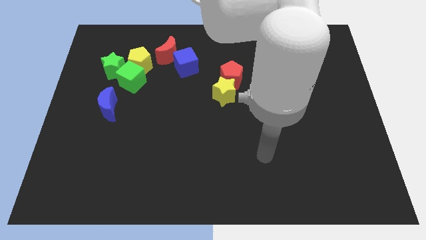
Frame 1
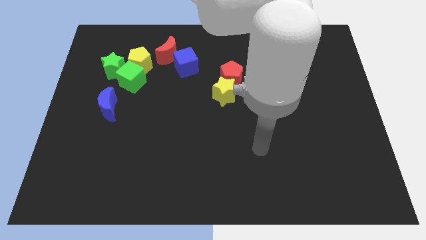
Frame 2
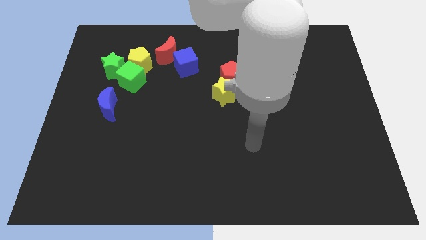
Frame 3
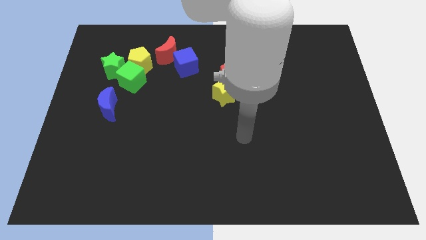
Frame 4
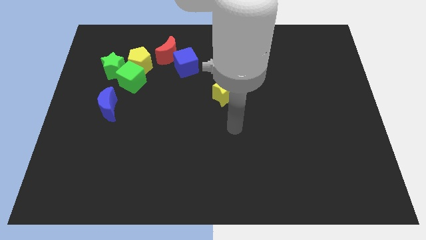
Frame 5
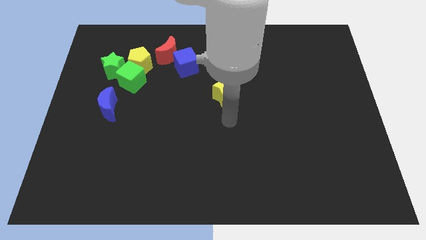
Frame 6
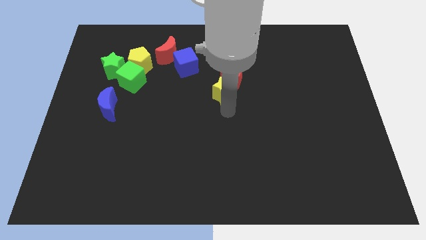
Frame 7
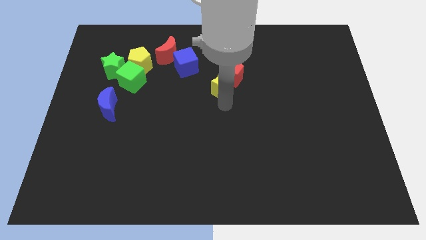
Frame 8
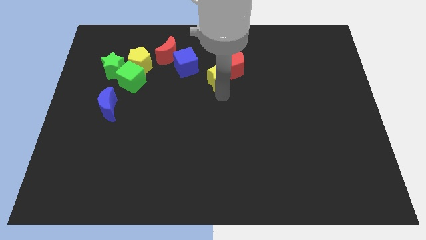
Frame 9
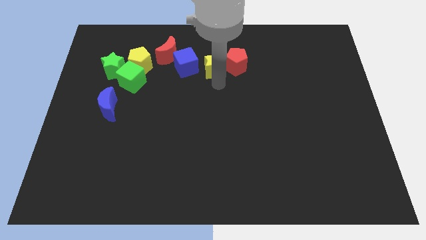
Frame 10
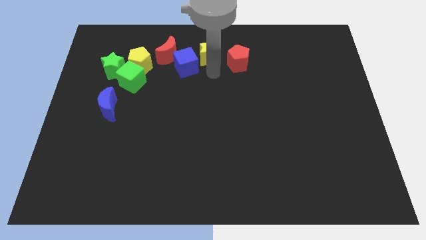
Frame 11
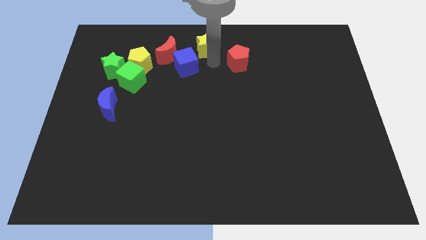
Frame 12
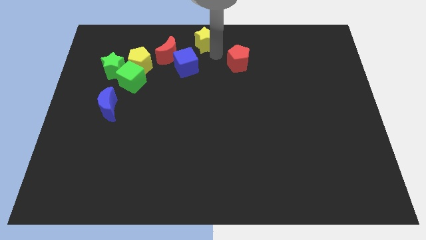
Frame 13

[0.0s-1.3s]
move the red pentagon away from the yellow star

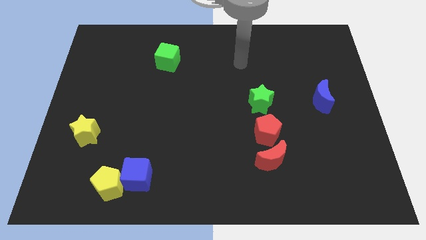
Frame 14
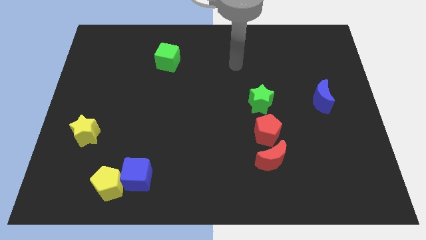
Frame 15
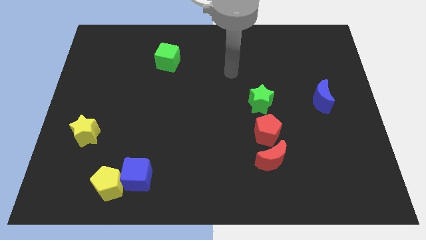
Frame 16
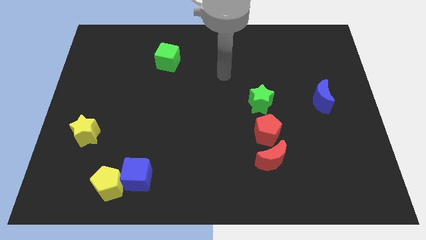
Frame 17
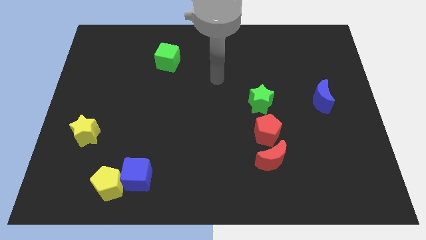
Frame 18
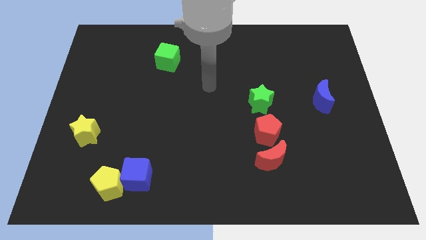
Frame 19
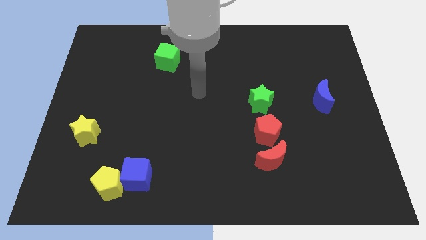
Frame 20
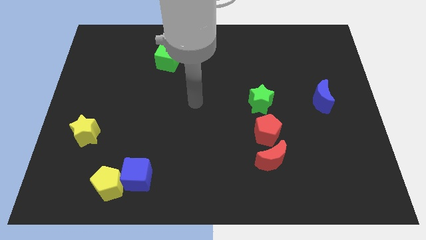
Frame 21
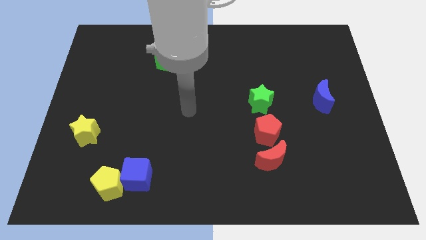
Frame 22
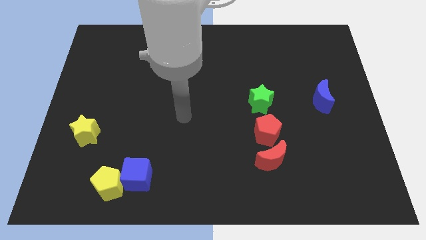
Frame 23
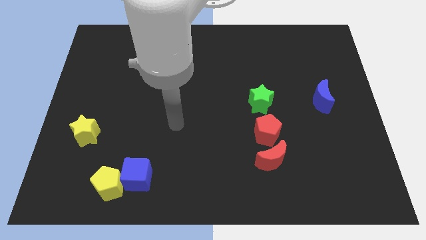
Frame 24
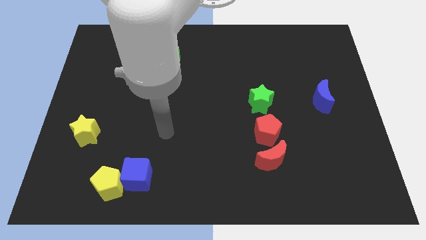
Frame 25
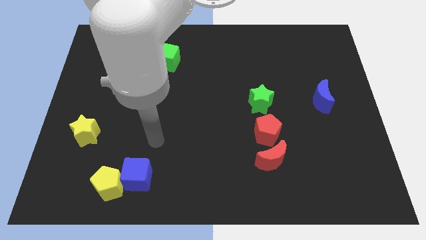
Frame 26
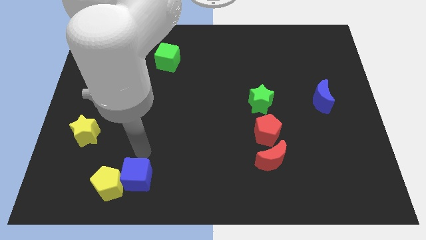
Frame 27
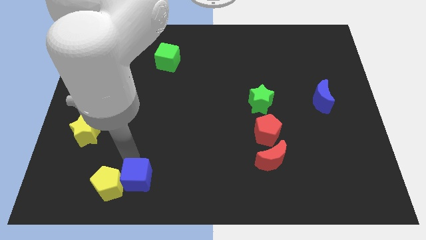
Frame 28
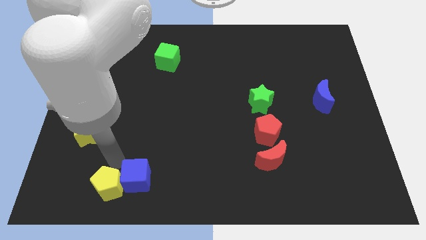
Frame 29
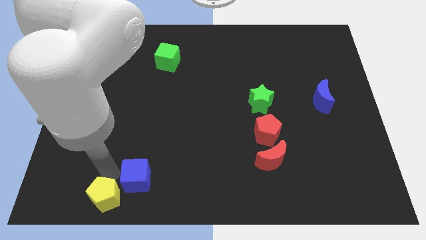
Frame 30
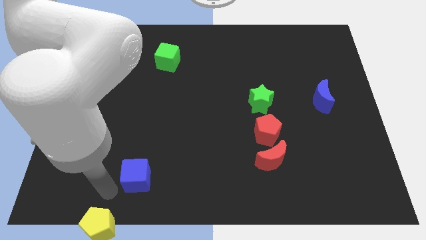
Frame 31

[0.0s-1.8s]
move the blue cube away from the yellow pentagon

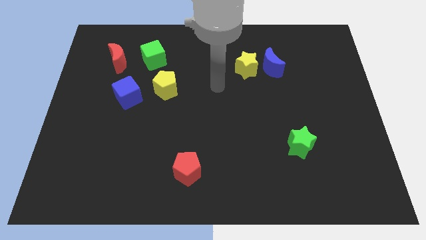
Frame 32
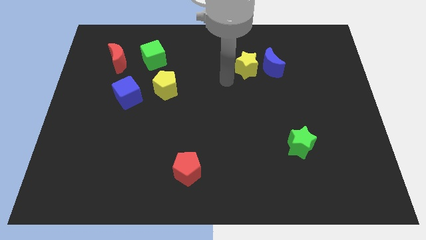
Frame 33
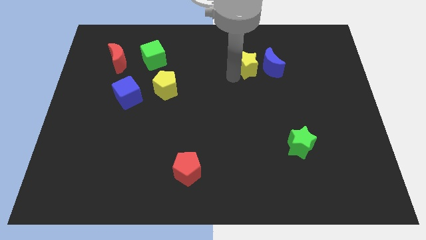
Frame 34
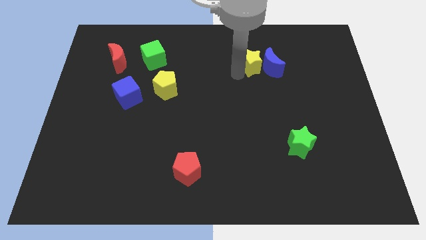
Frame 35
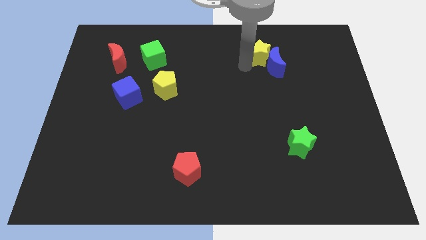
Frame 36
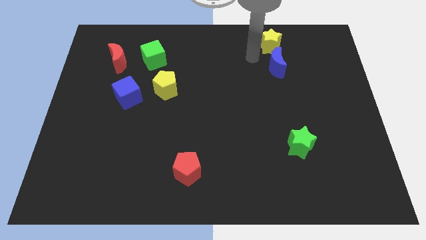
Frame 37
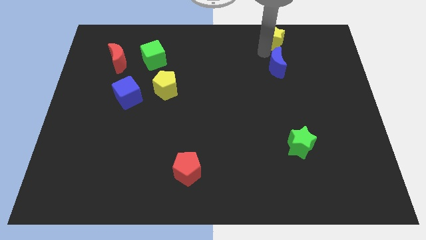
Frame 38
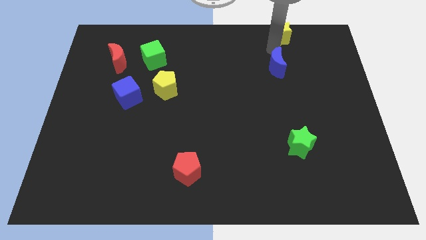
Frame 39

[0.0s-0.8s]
separate the blue moon from the yellow star

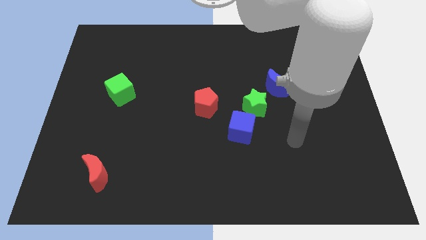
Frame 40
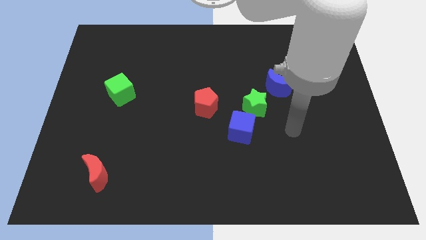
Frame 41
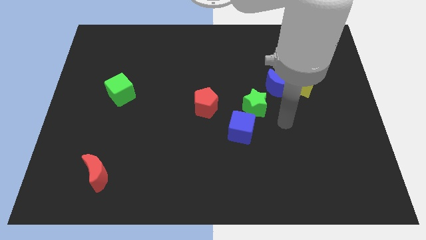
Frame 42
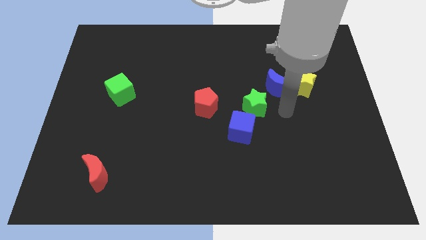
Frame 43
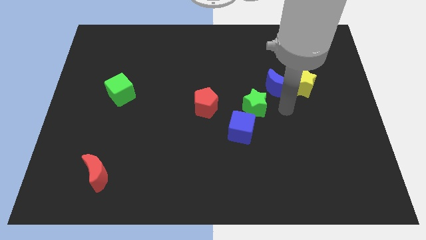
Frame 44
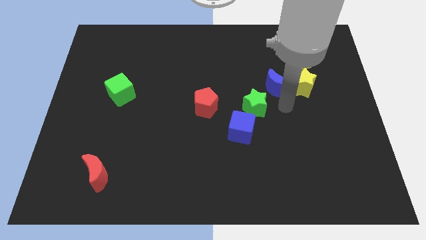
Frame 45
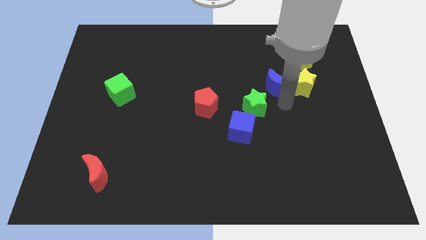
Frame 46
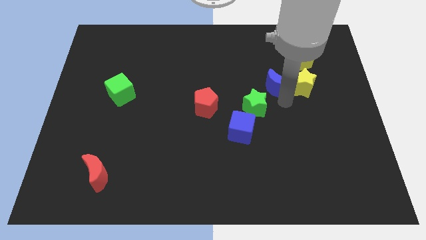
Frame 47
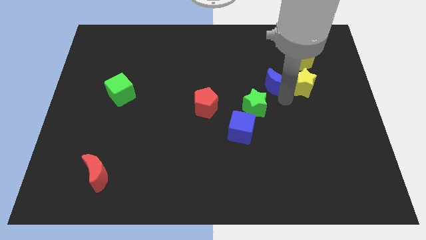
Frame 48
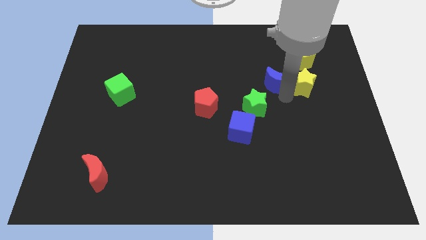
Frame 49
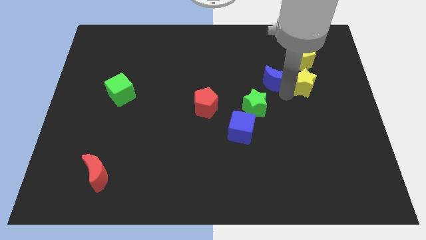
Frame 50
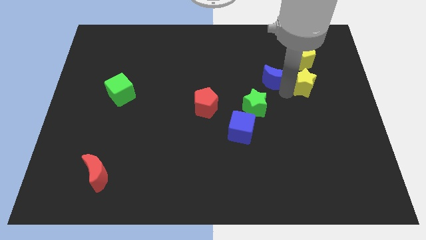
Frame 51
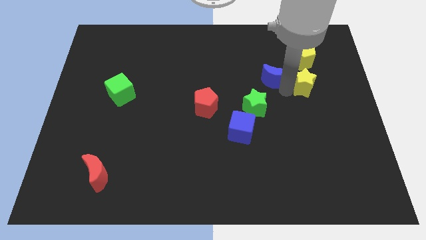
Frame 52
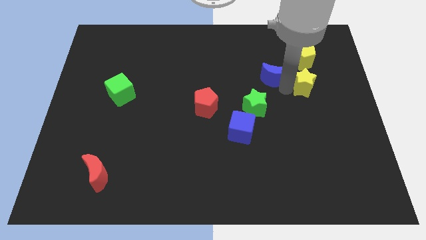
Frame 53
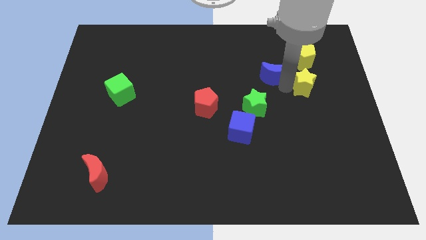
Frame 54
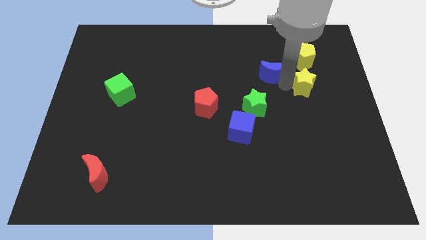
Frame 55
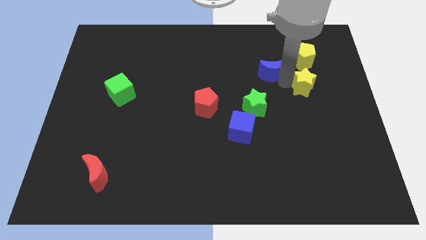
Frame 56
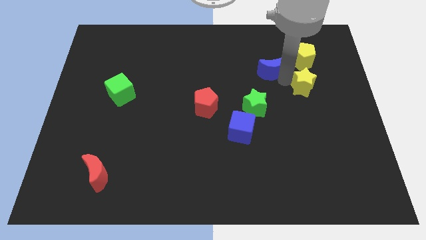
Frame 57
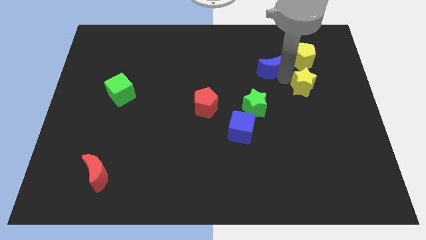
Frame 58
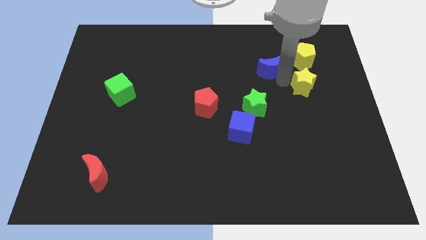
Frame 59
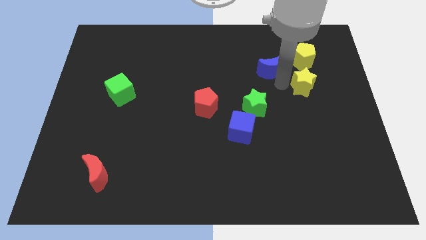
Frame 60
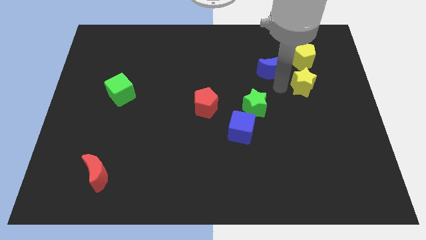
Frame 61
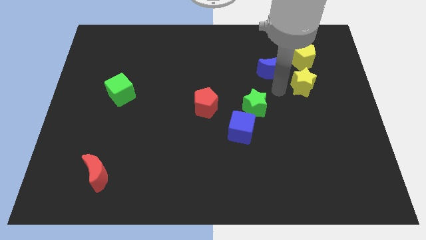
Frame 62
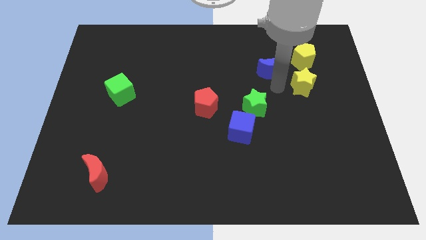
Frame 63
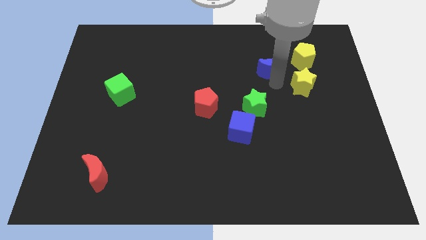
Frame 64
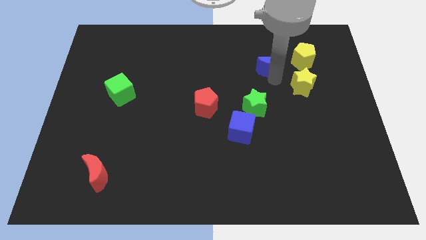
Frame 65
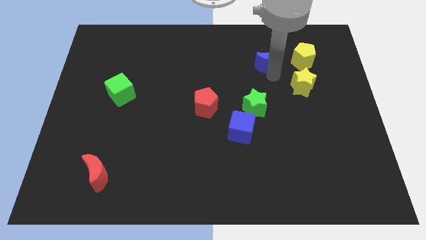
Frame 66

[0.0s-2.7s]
pull the blue moon apart from the yellow star and green star

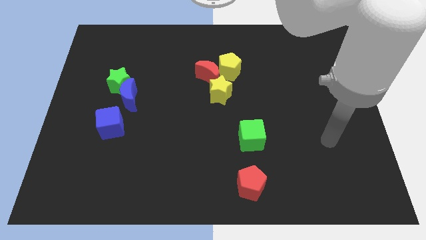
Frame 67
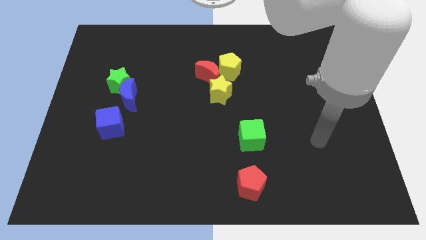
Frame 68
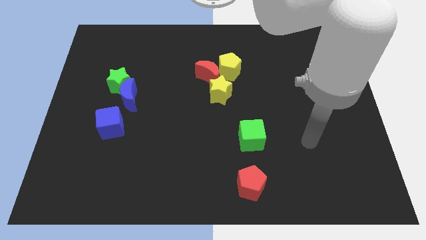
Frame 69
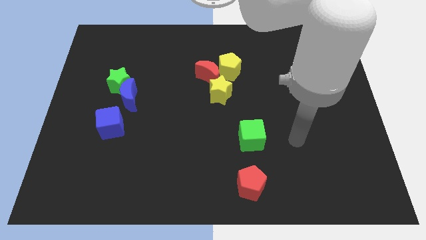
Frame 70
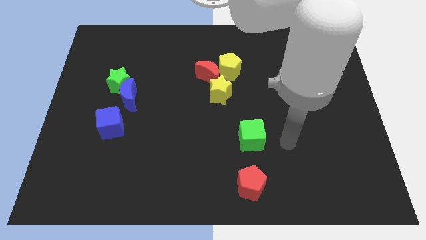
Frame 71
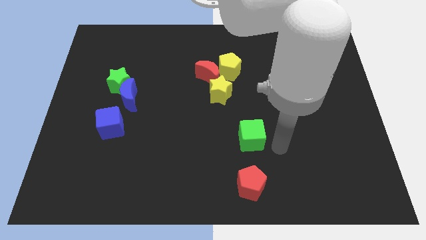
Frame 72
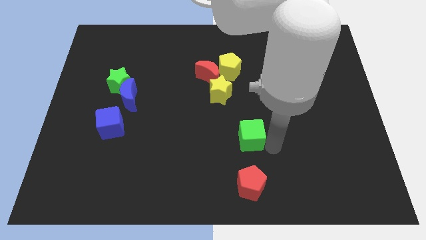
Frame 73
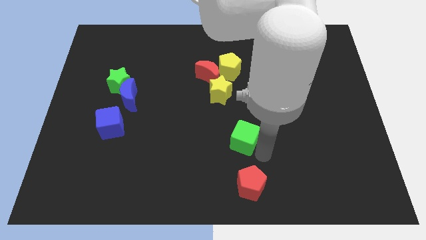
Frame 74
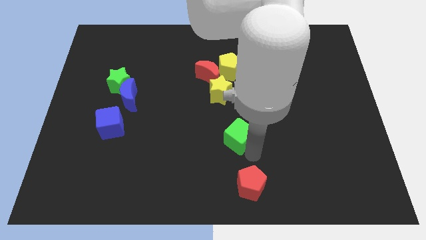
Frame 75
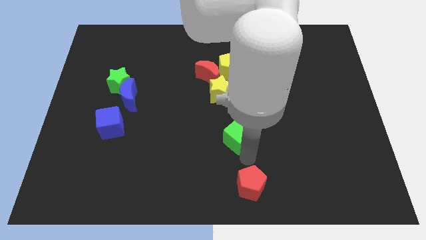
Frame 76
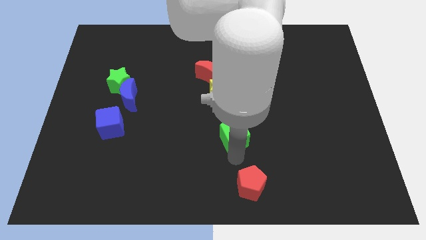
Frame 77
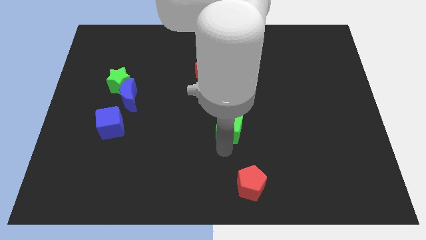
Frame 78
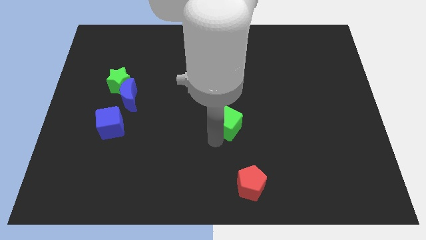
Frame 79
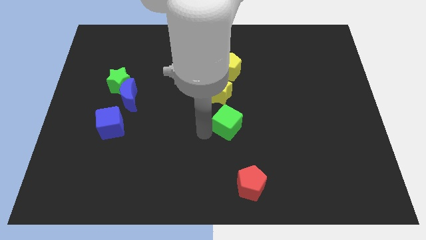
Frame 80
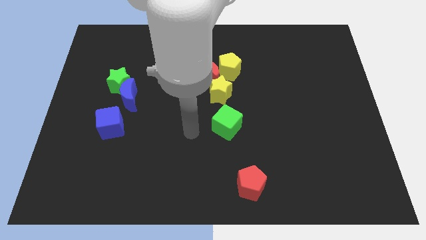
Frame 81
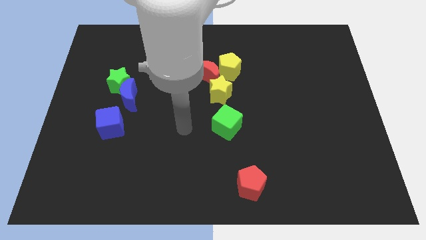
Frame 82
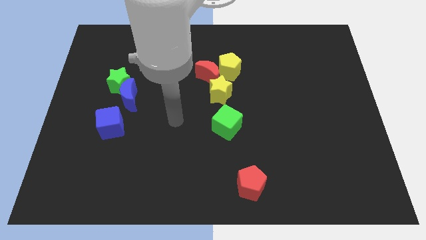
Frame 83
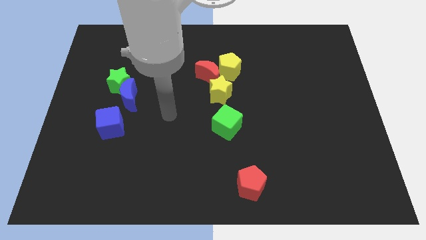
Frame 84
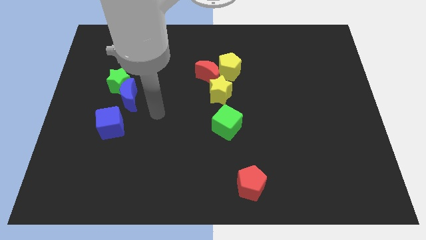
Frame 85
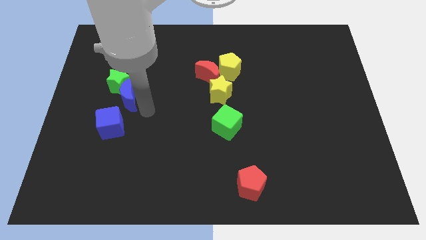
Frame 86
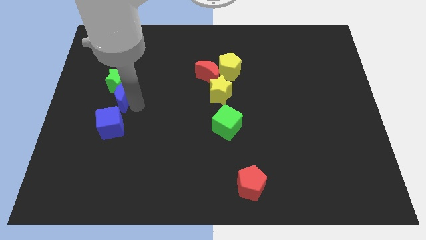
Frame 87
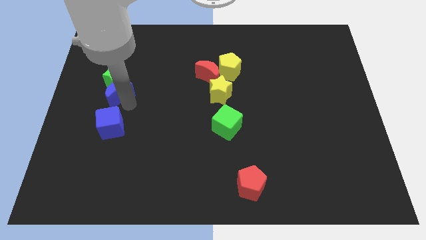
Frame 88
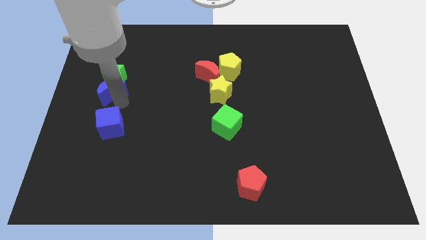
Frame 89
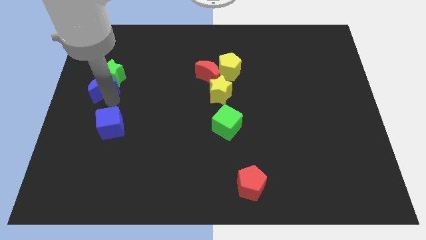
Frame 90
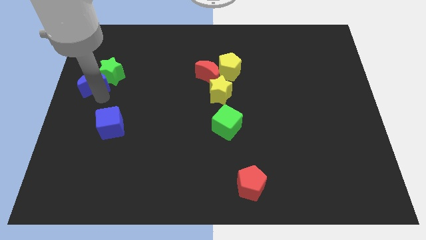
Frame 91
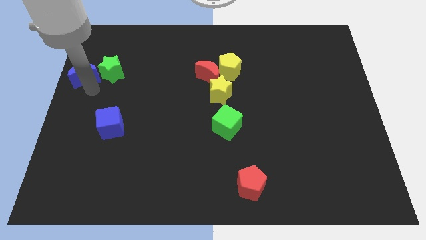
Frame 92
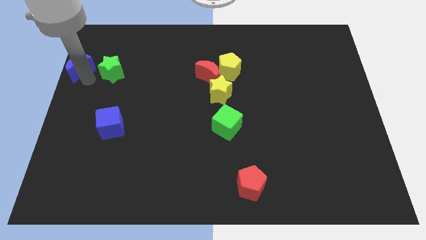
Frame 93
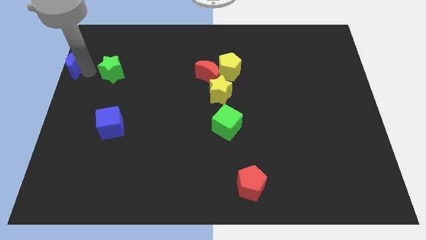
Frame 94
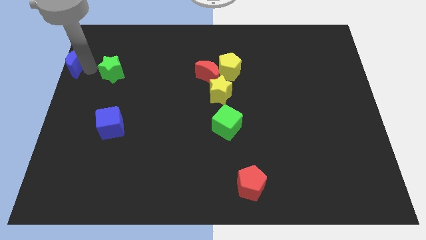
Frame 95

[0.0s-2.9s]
separate the green star from the blue moon
